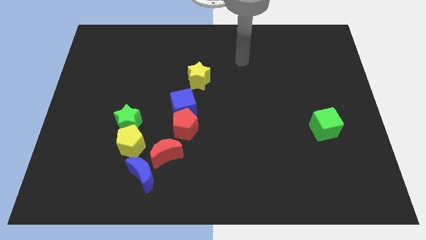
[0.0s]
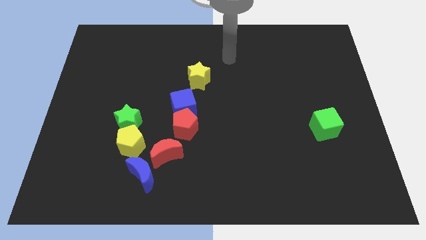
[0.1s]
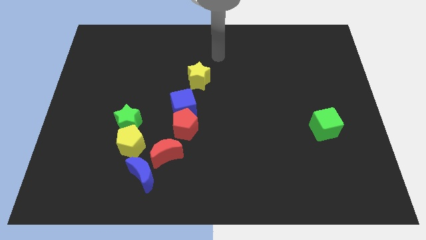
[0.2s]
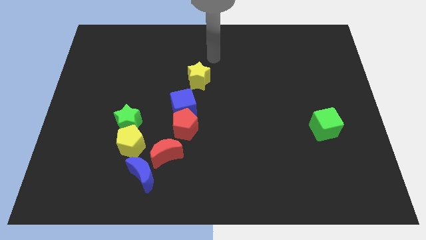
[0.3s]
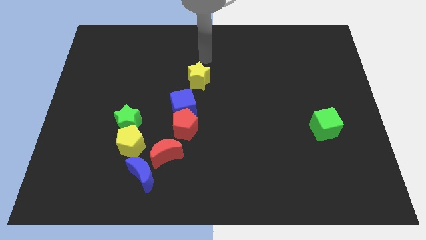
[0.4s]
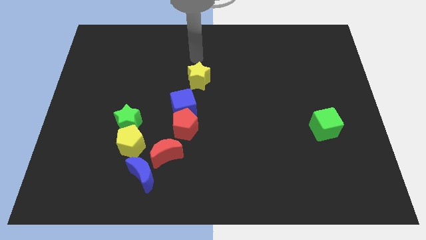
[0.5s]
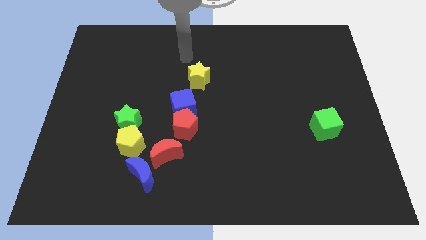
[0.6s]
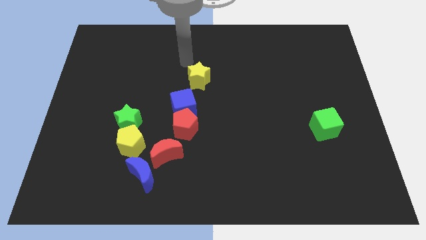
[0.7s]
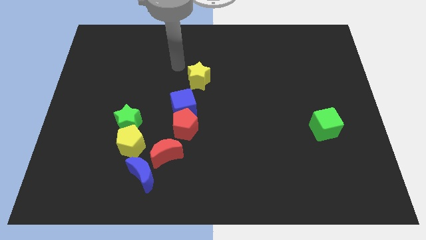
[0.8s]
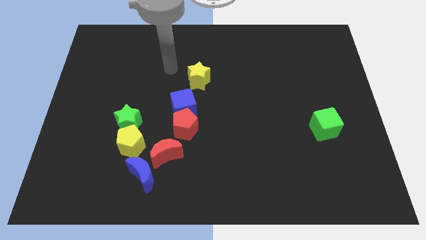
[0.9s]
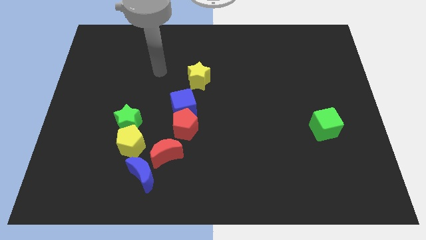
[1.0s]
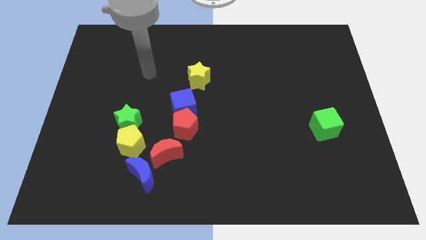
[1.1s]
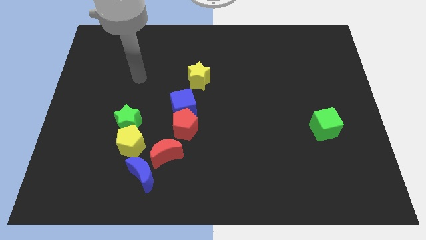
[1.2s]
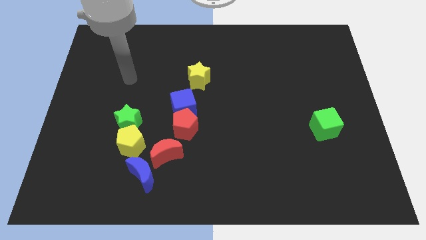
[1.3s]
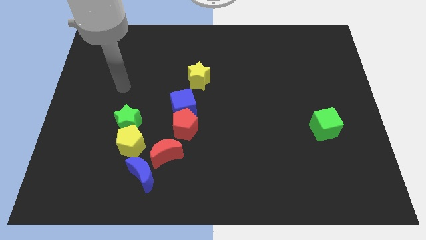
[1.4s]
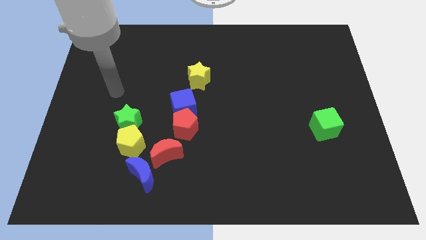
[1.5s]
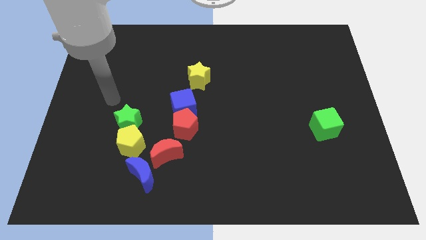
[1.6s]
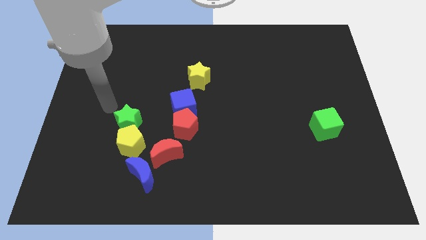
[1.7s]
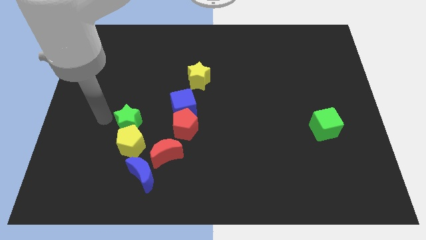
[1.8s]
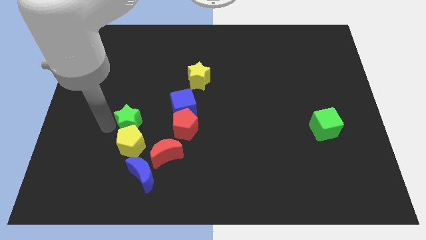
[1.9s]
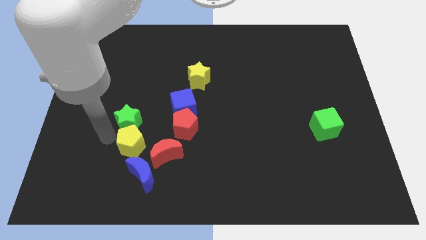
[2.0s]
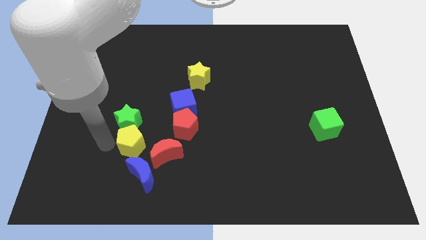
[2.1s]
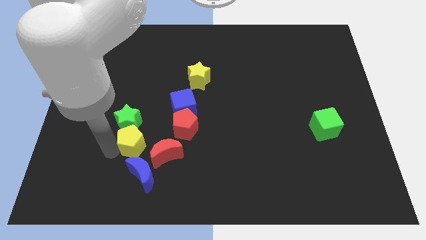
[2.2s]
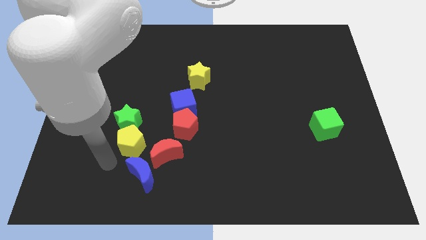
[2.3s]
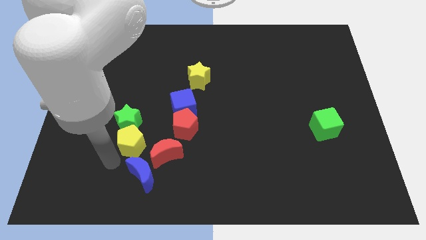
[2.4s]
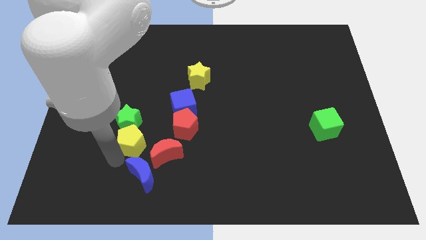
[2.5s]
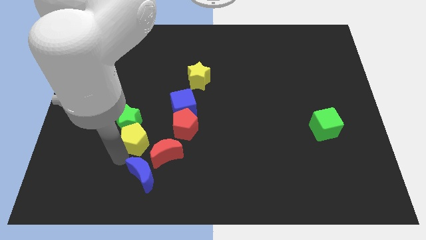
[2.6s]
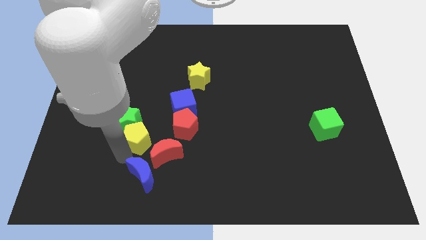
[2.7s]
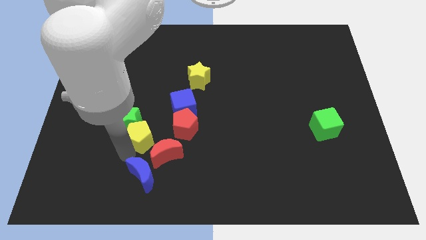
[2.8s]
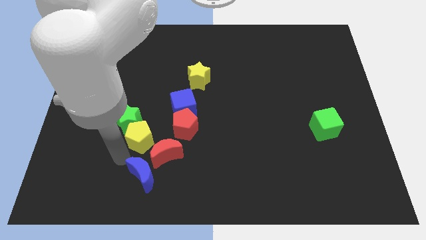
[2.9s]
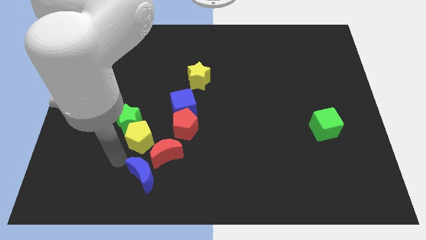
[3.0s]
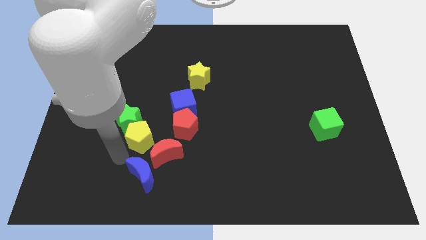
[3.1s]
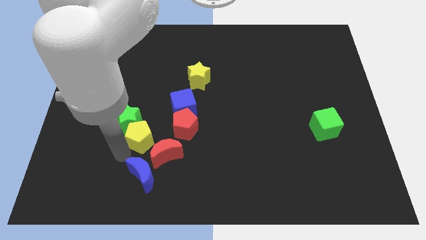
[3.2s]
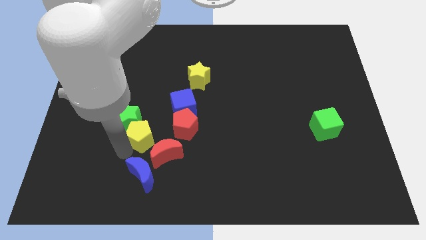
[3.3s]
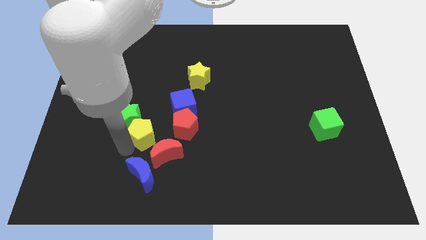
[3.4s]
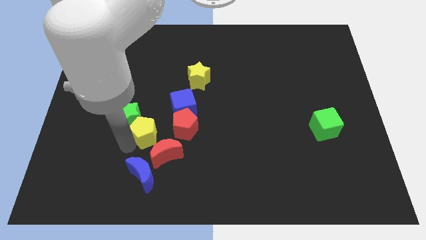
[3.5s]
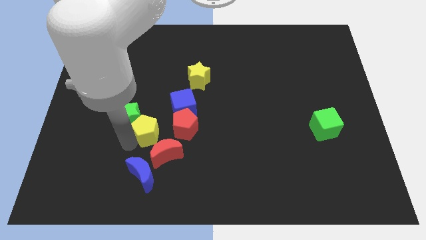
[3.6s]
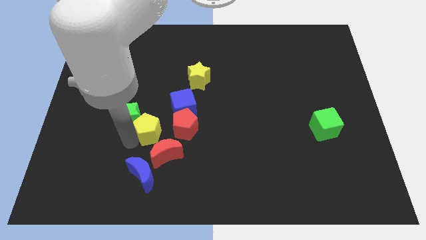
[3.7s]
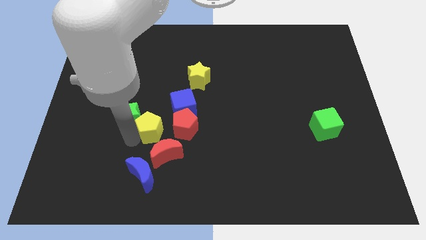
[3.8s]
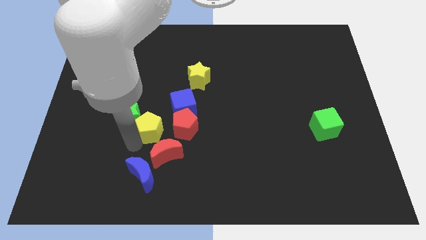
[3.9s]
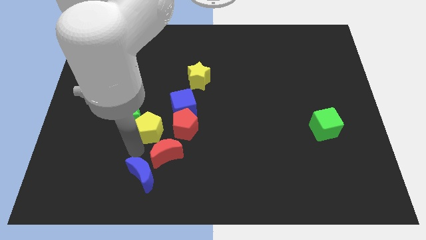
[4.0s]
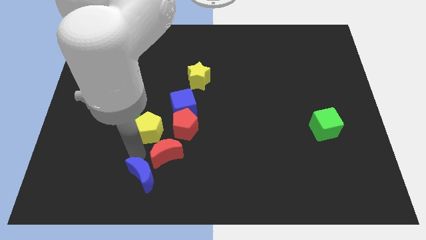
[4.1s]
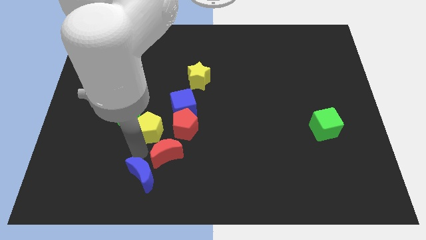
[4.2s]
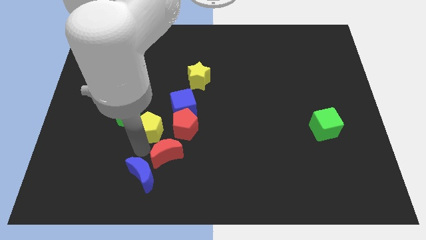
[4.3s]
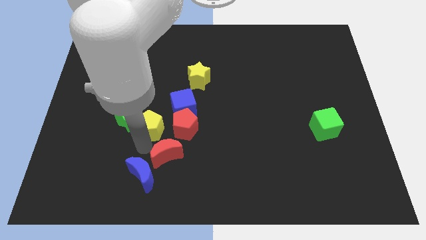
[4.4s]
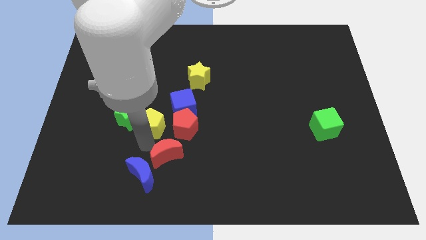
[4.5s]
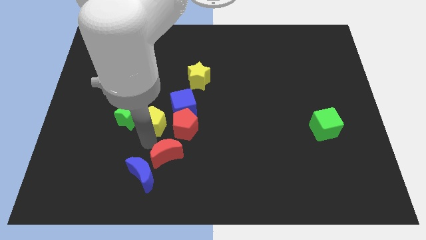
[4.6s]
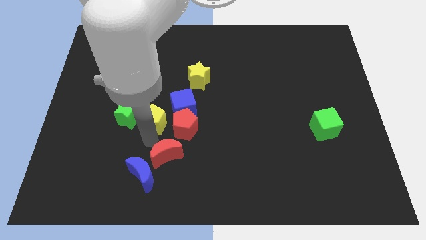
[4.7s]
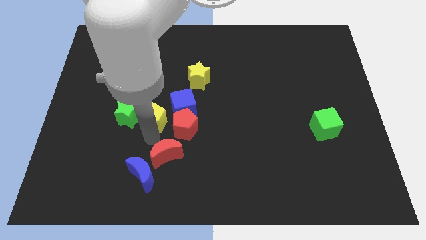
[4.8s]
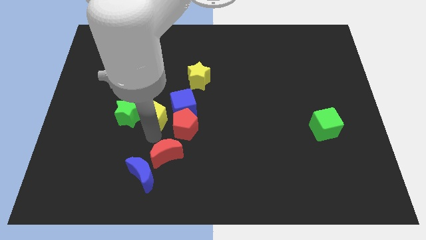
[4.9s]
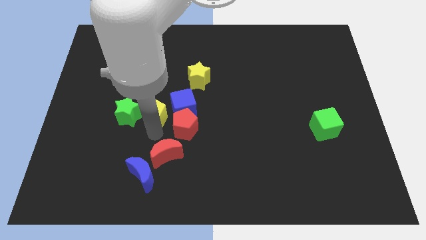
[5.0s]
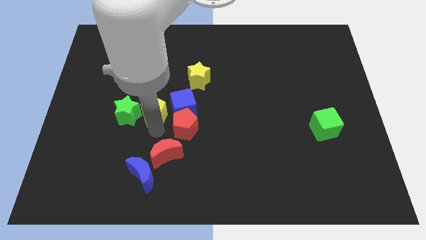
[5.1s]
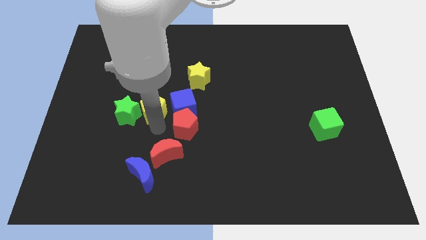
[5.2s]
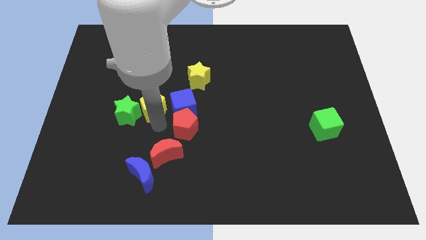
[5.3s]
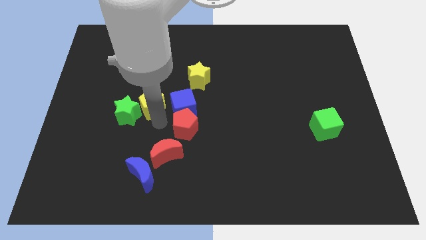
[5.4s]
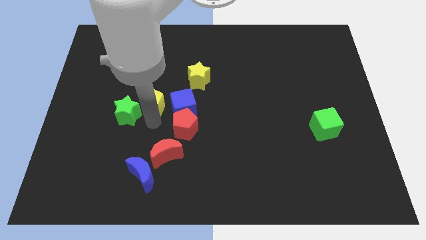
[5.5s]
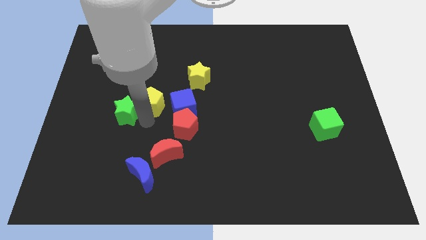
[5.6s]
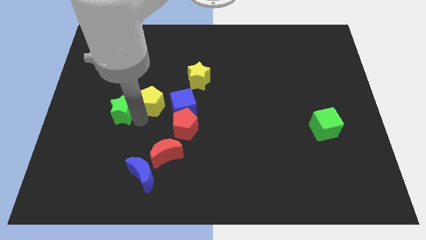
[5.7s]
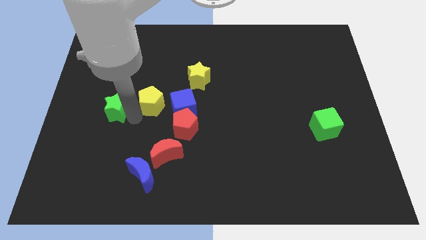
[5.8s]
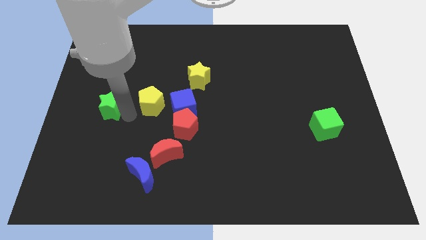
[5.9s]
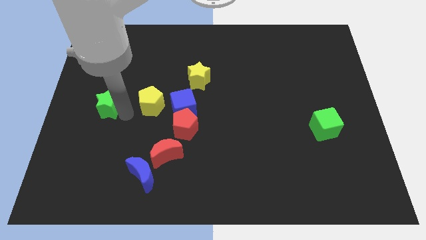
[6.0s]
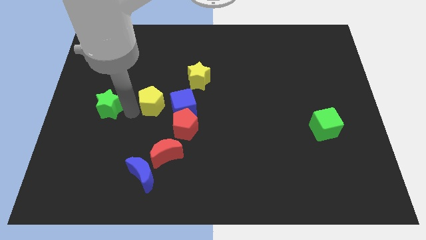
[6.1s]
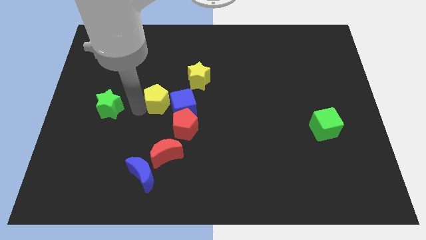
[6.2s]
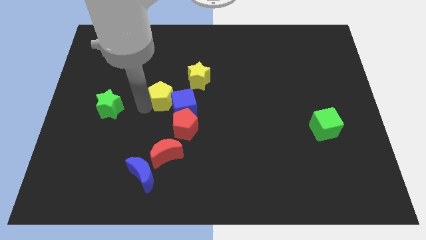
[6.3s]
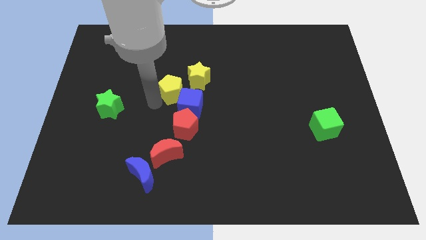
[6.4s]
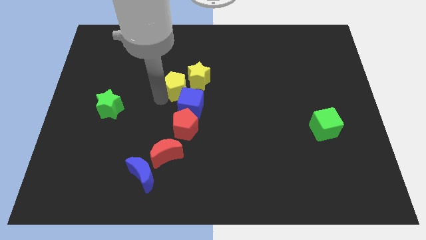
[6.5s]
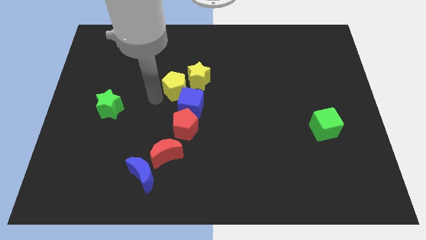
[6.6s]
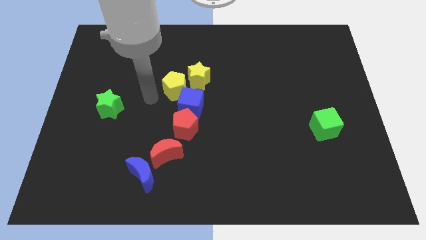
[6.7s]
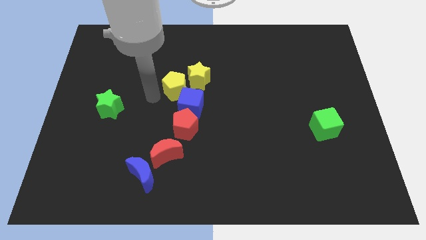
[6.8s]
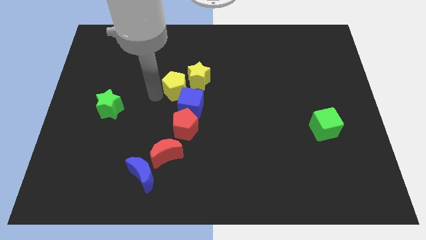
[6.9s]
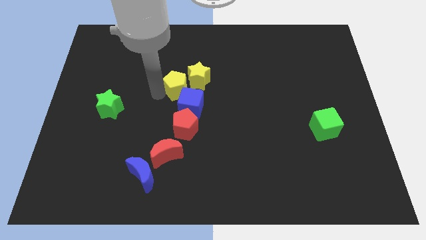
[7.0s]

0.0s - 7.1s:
push the yellow pentagon close to the yellow star
